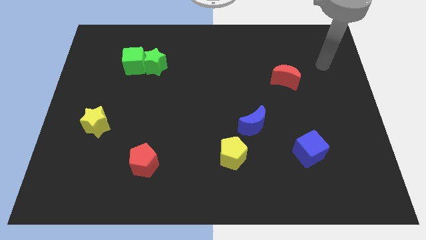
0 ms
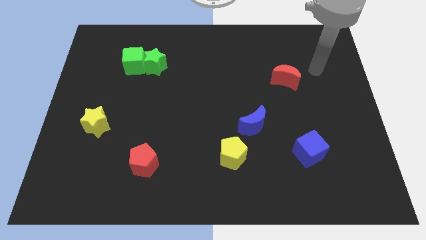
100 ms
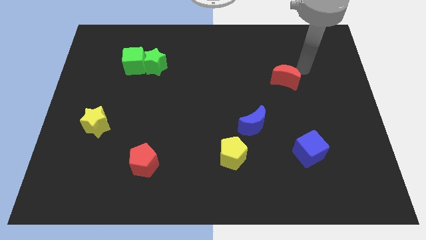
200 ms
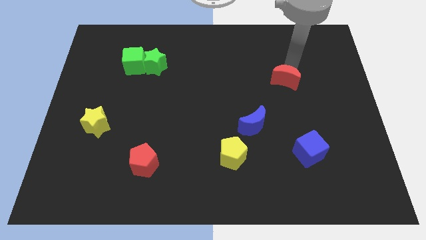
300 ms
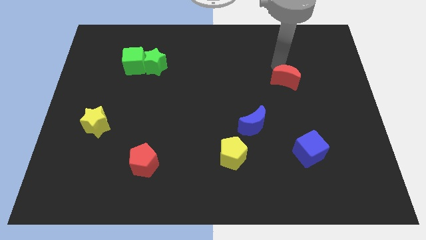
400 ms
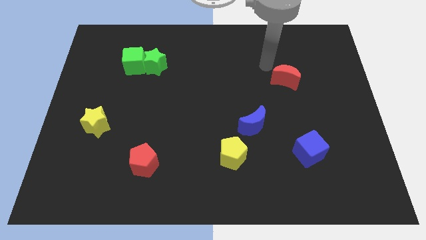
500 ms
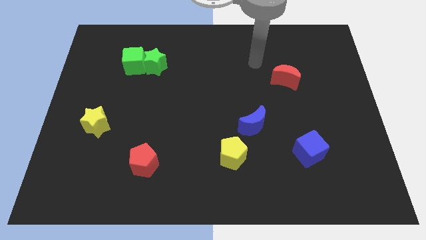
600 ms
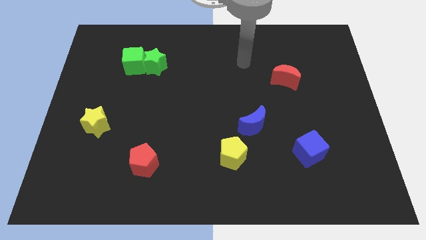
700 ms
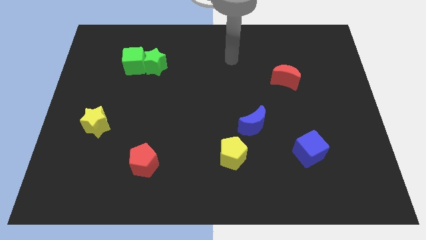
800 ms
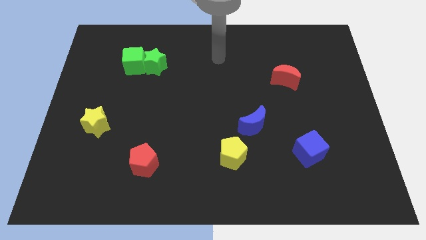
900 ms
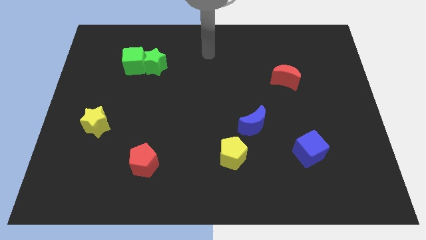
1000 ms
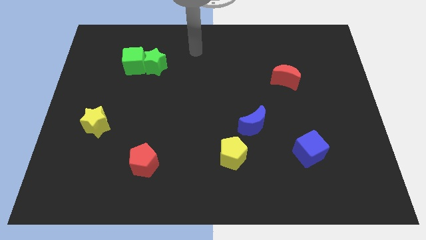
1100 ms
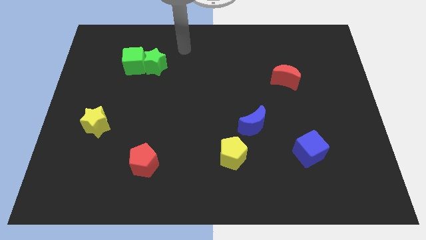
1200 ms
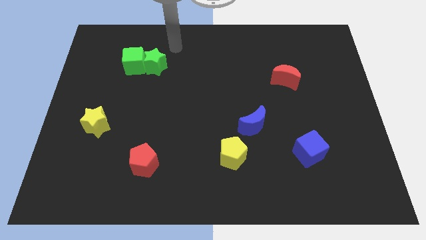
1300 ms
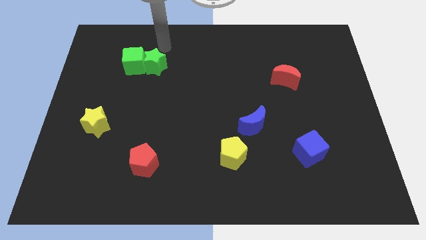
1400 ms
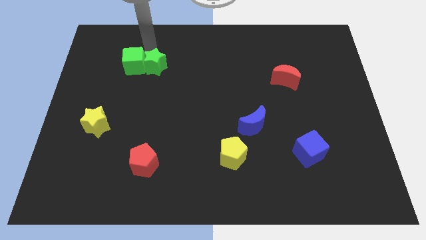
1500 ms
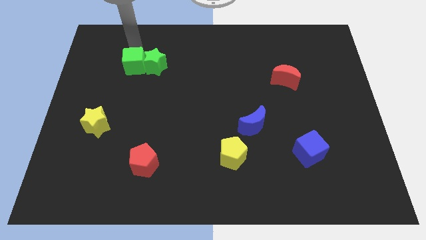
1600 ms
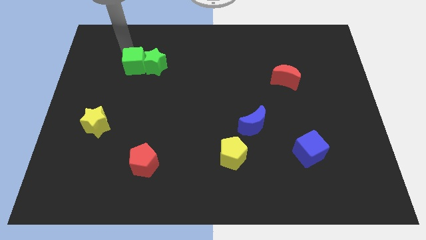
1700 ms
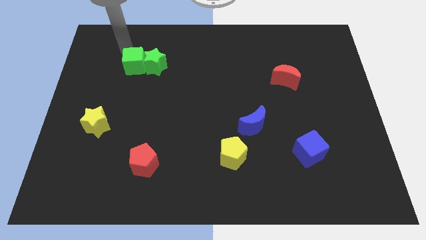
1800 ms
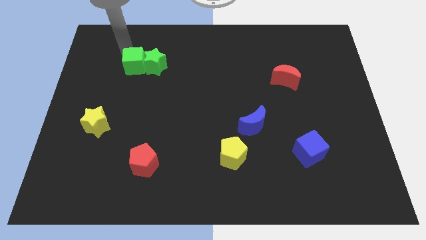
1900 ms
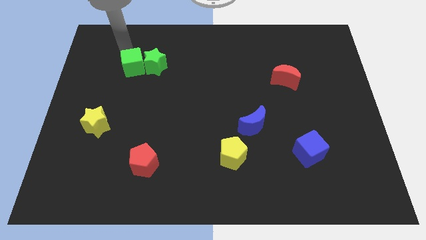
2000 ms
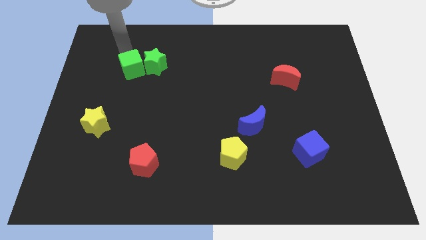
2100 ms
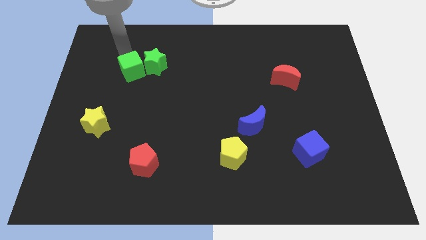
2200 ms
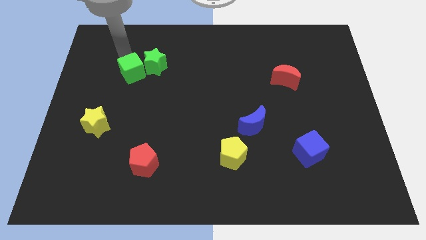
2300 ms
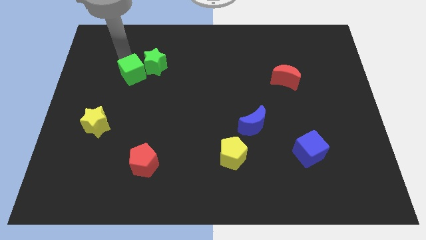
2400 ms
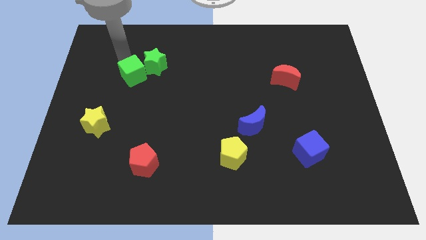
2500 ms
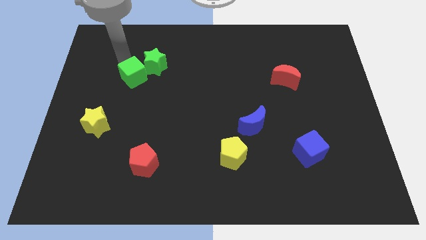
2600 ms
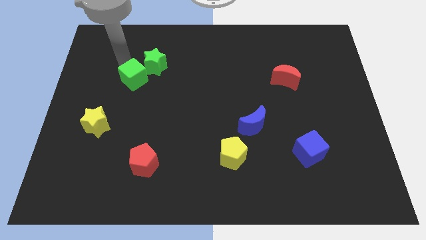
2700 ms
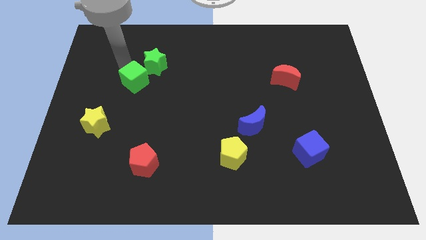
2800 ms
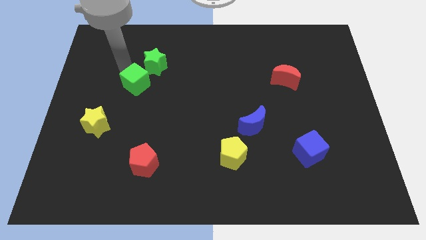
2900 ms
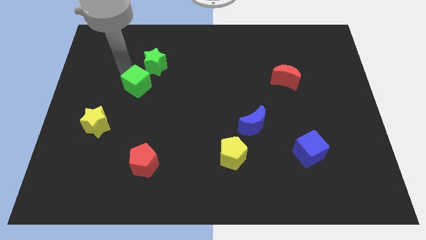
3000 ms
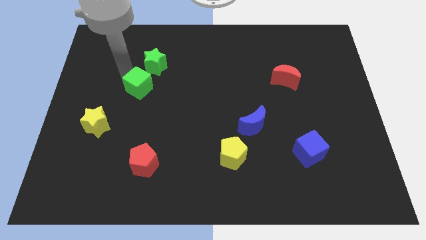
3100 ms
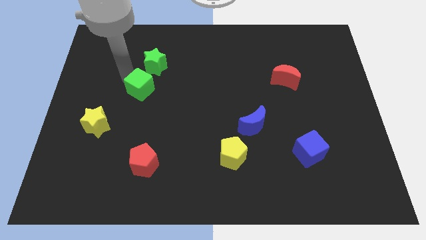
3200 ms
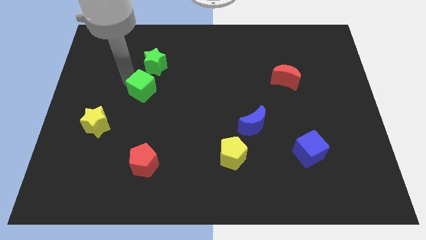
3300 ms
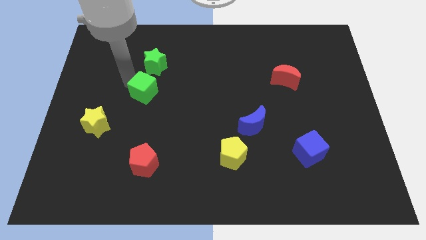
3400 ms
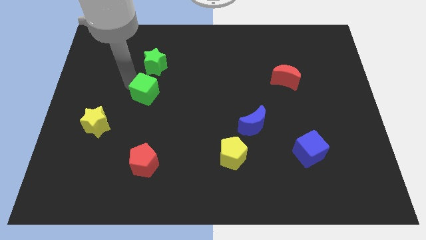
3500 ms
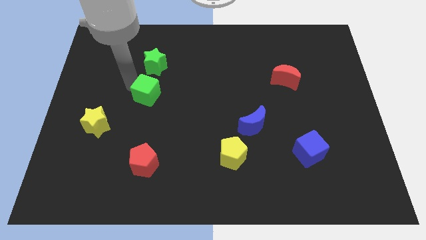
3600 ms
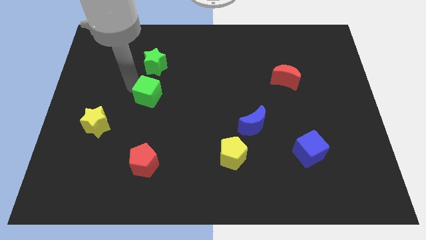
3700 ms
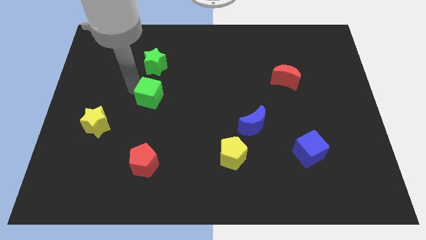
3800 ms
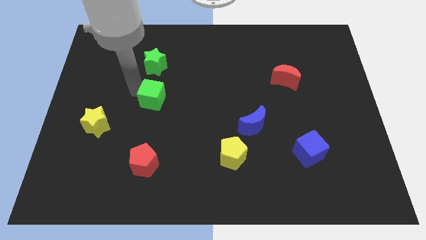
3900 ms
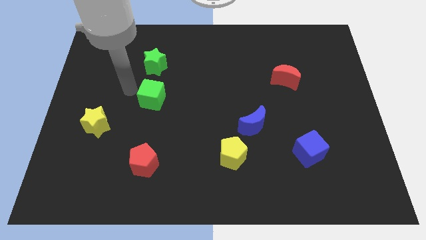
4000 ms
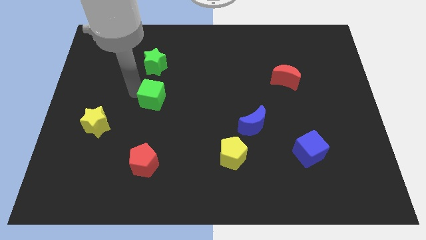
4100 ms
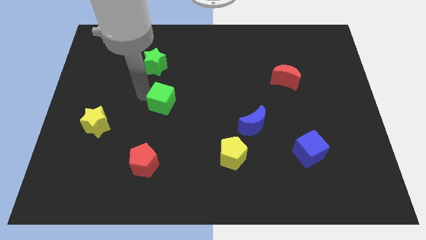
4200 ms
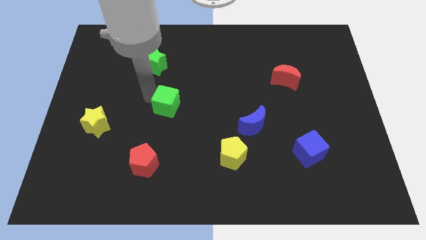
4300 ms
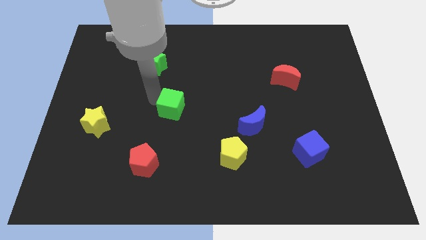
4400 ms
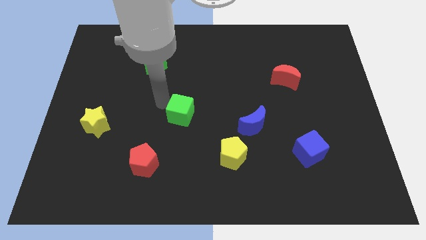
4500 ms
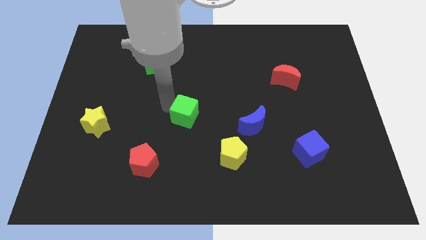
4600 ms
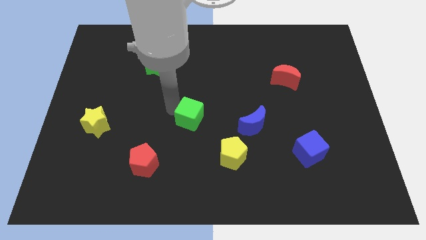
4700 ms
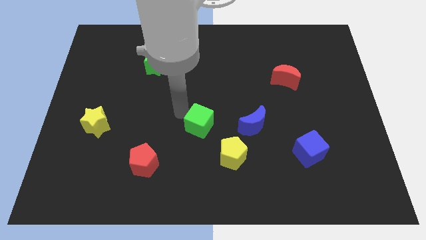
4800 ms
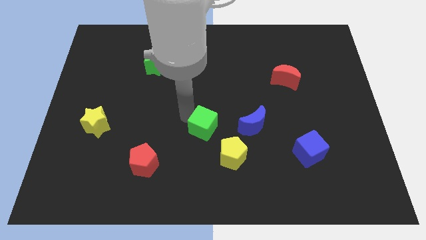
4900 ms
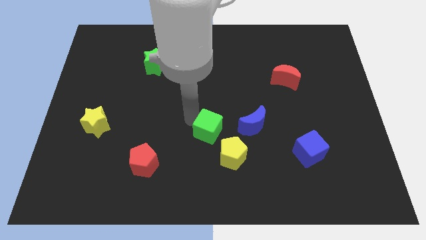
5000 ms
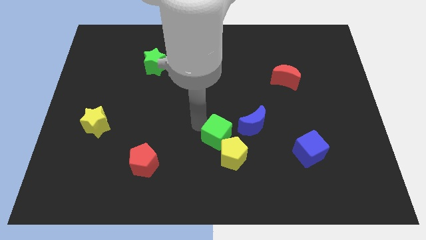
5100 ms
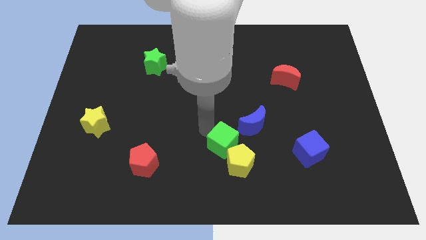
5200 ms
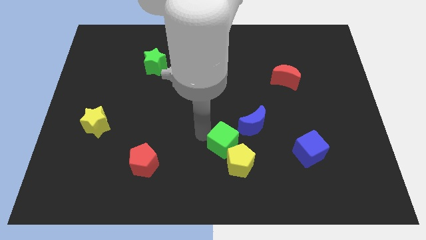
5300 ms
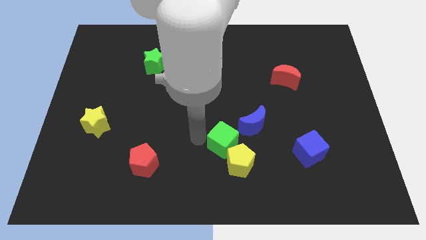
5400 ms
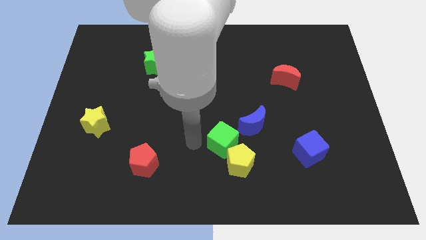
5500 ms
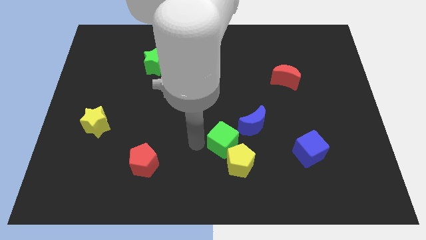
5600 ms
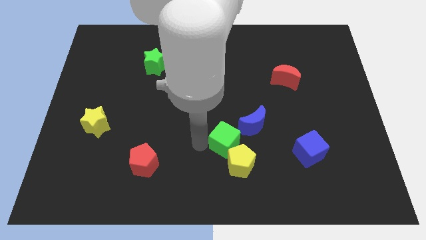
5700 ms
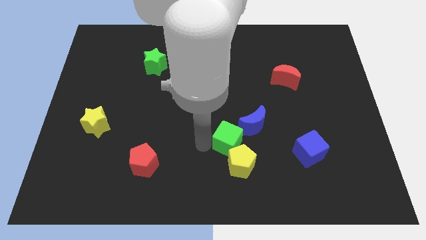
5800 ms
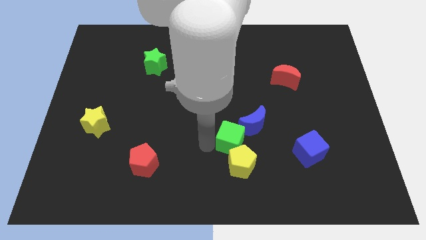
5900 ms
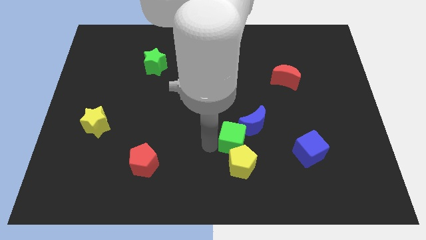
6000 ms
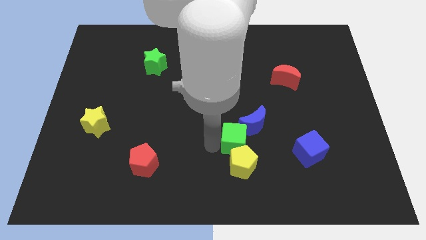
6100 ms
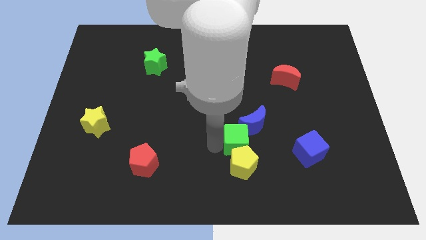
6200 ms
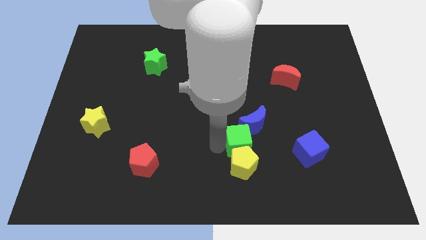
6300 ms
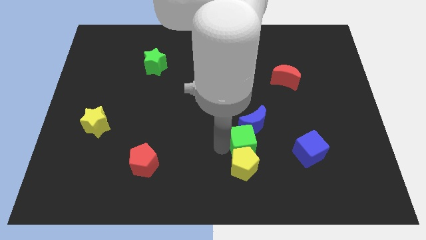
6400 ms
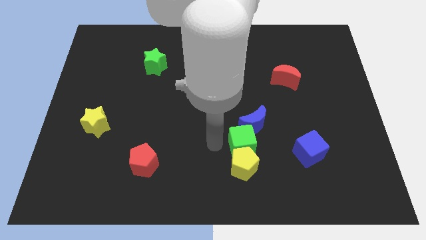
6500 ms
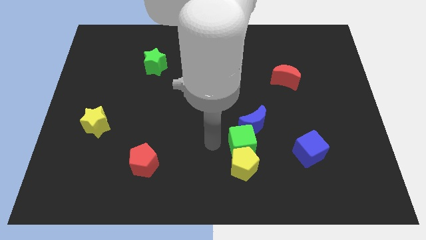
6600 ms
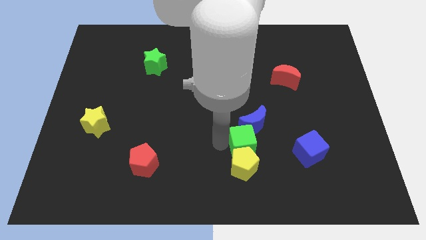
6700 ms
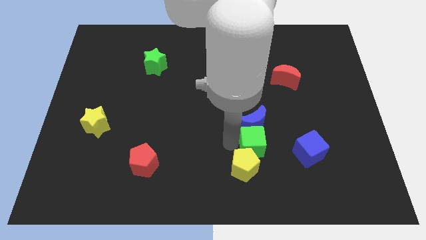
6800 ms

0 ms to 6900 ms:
push the green cube to the bottom right of the blue moon
